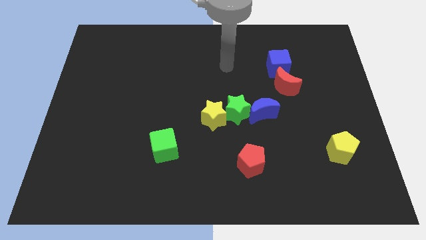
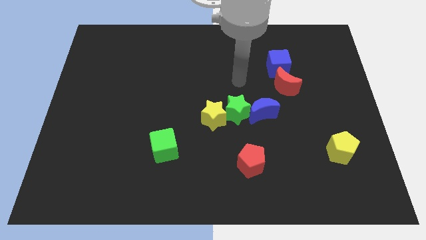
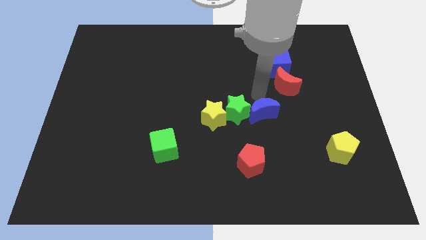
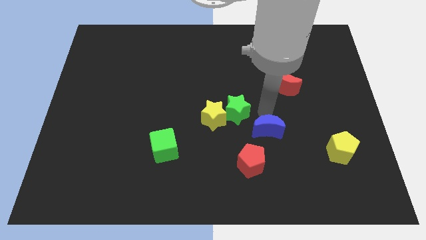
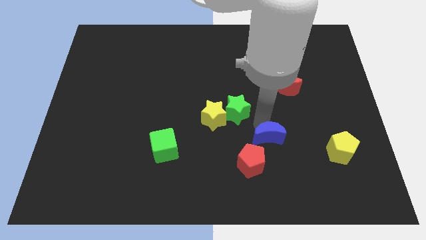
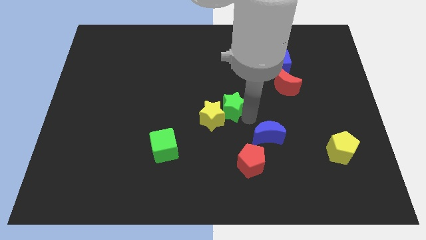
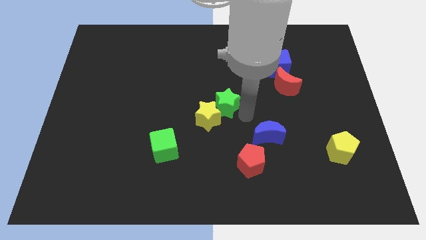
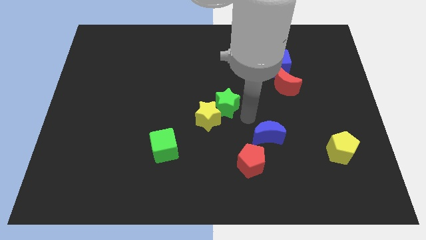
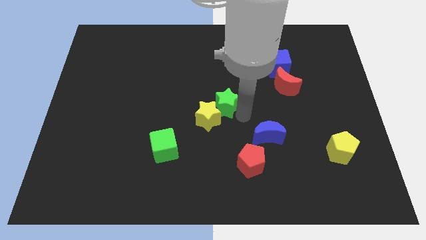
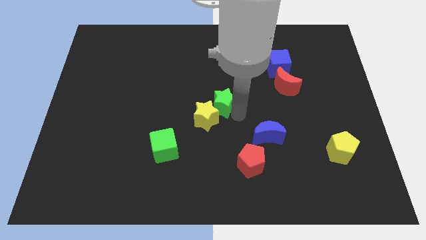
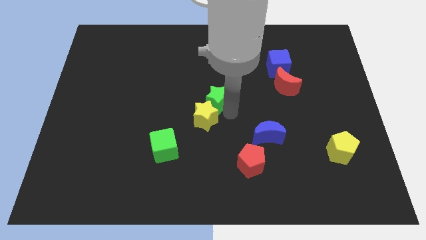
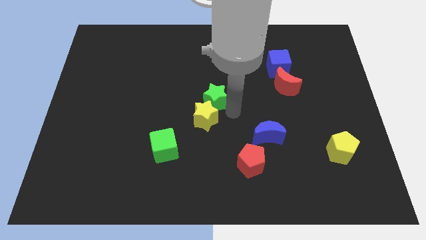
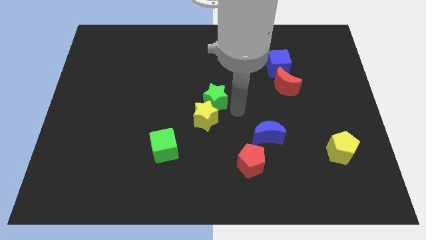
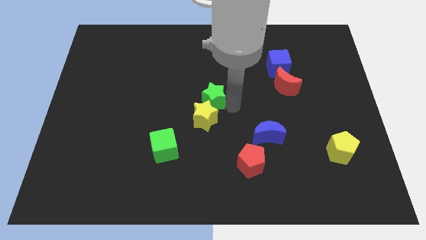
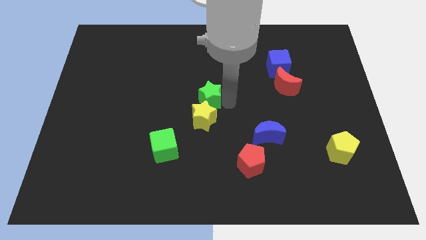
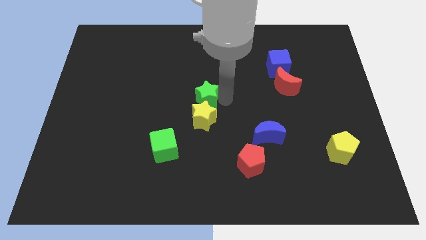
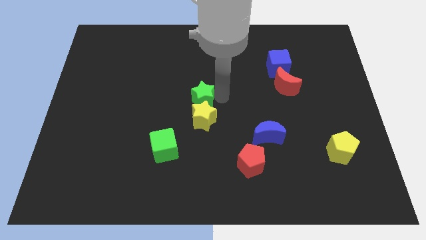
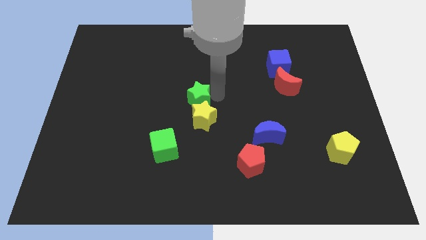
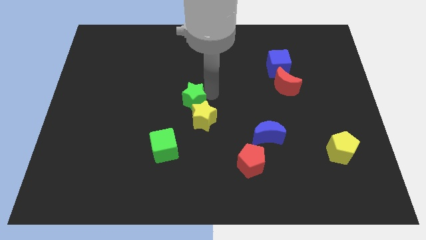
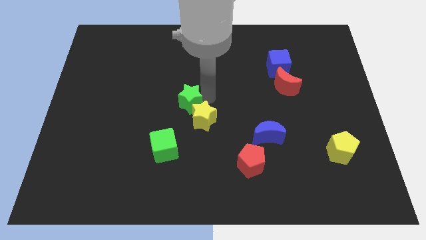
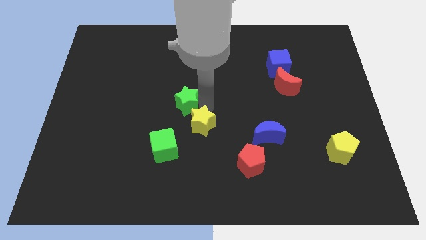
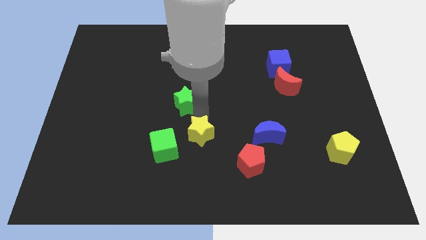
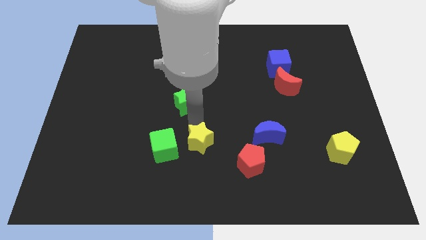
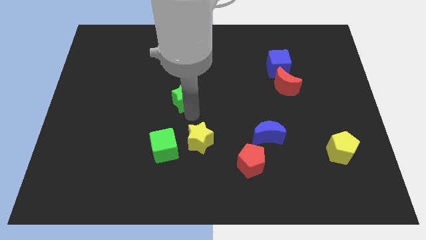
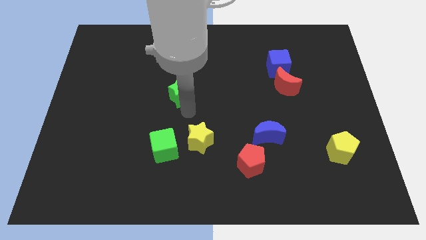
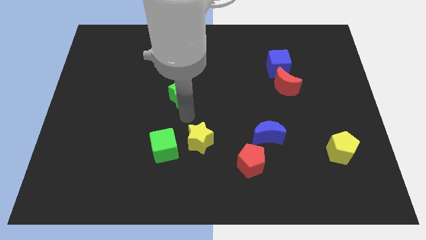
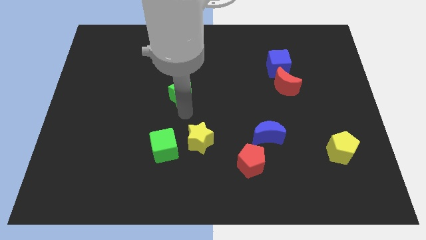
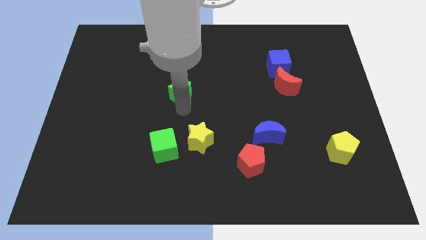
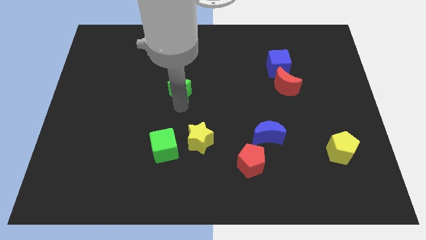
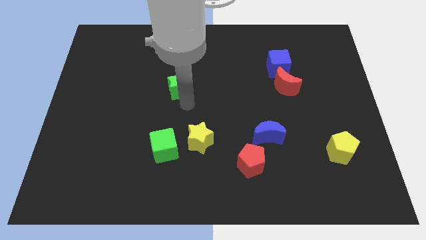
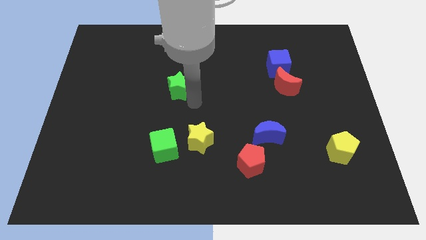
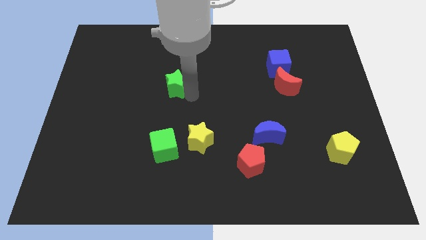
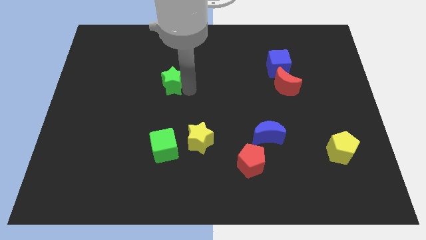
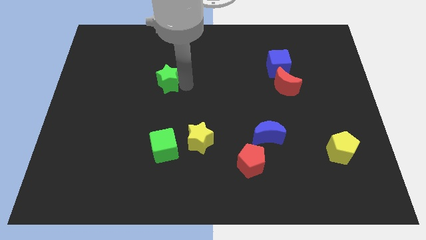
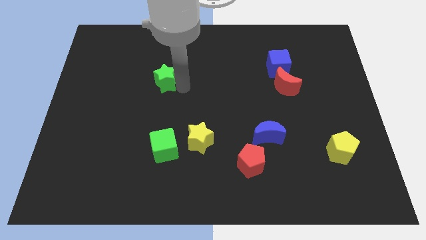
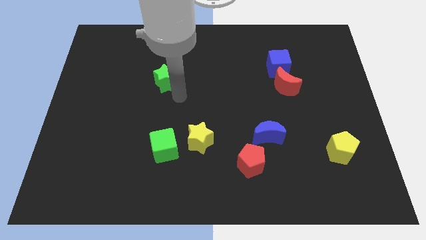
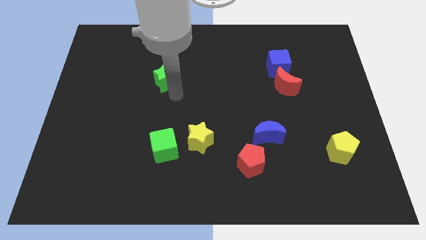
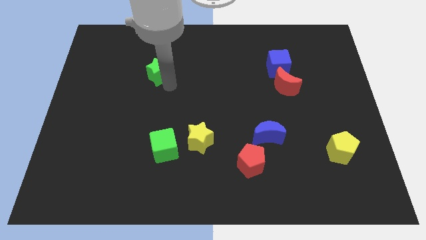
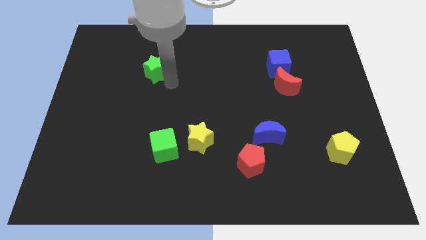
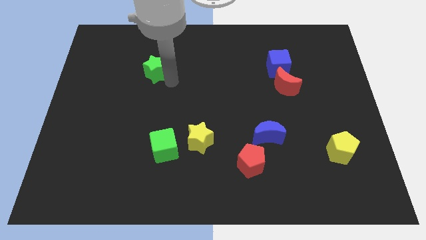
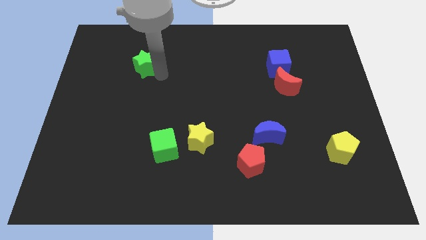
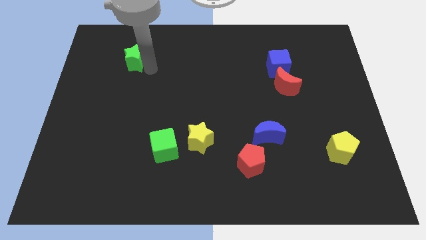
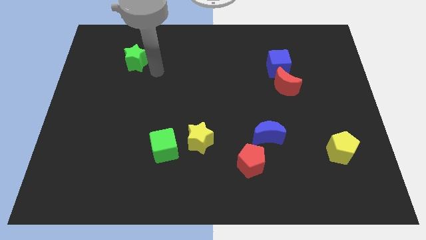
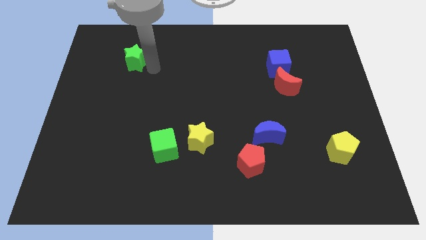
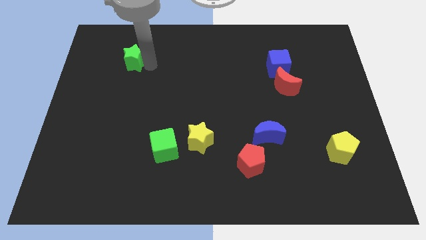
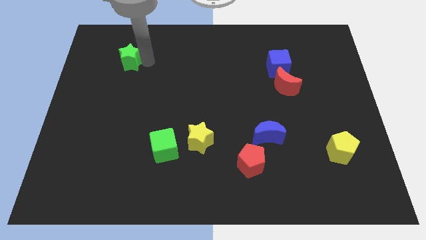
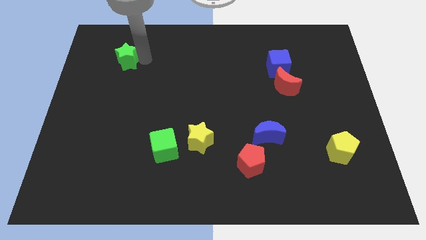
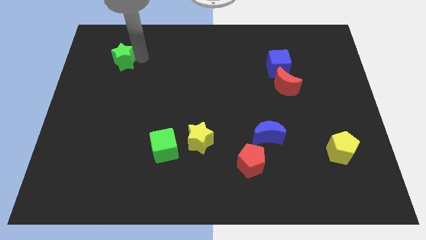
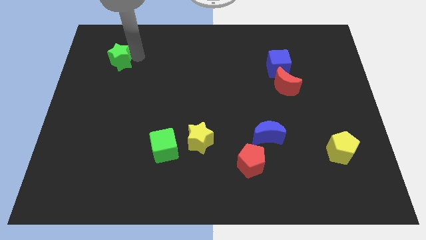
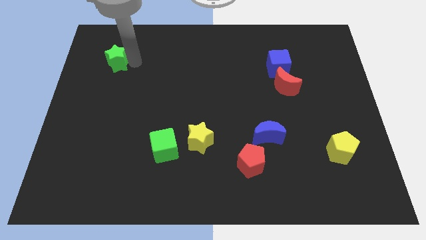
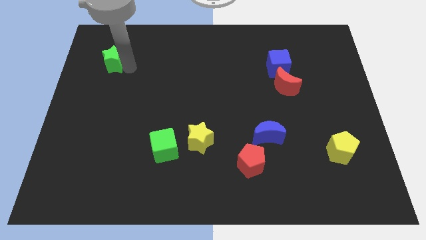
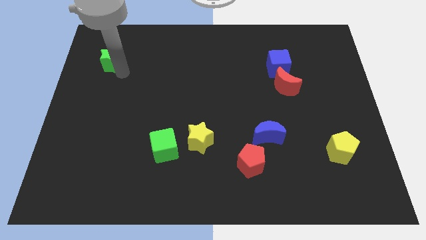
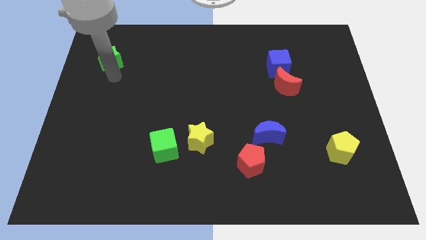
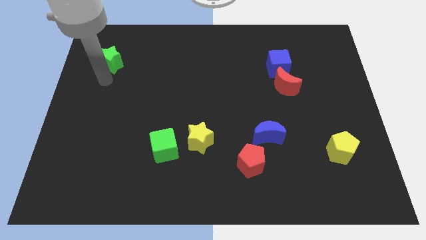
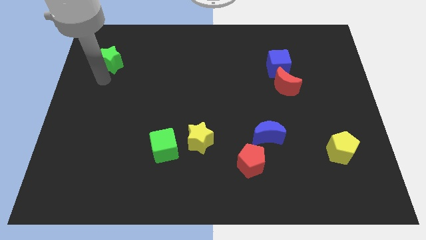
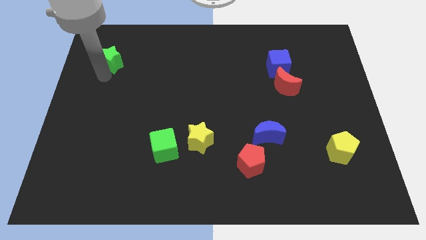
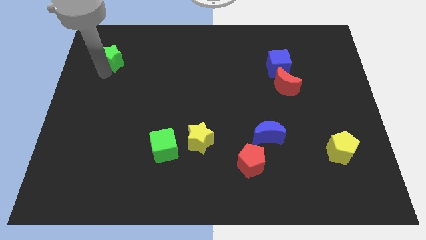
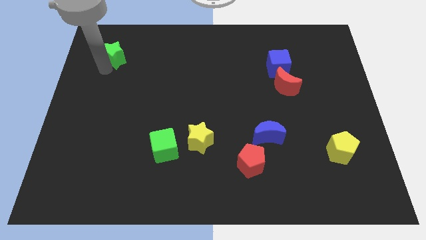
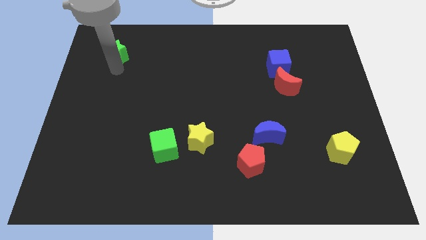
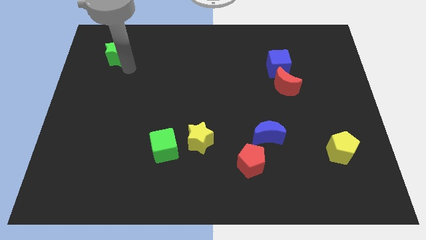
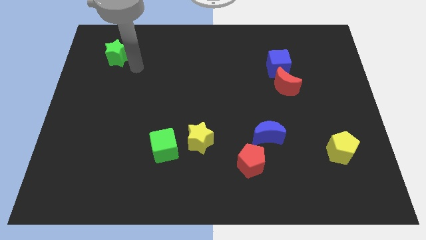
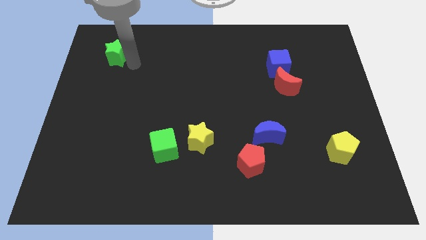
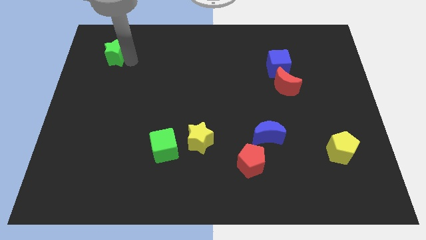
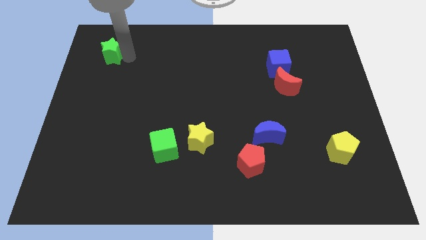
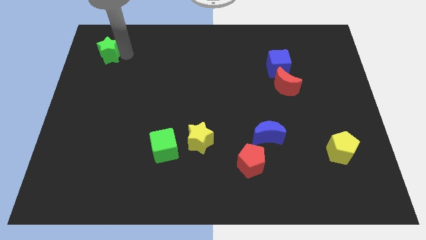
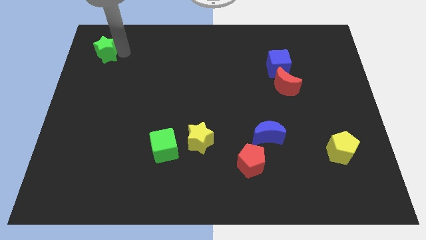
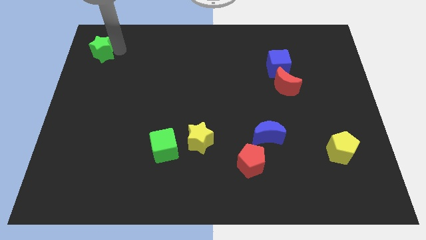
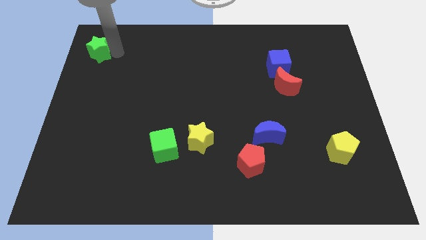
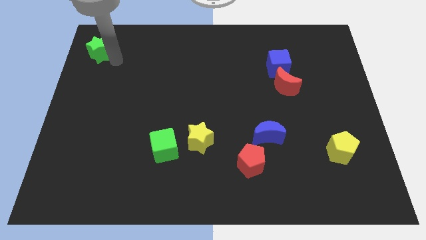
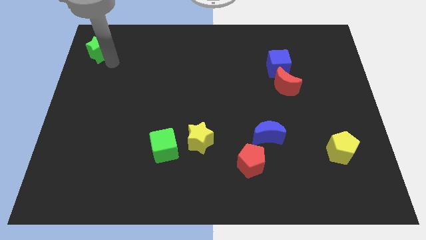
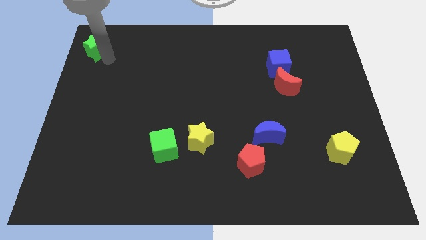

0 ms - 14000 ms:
put the green star to the top left corner
